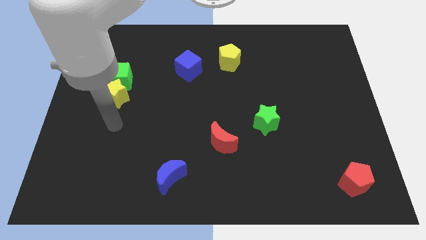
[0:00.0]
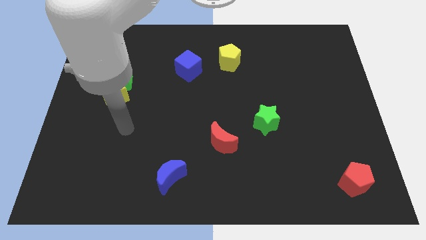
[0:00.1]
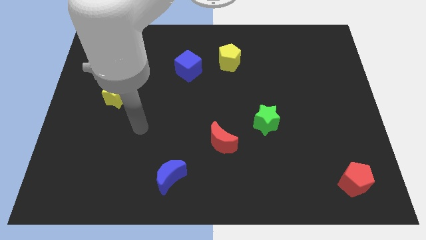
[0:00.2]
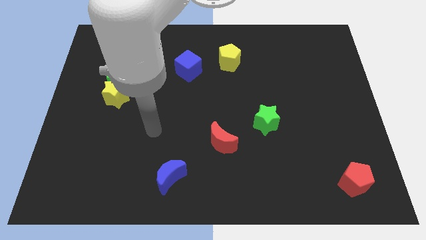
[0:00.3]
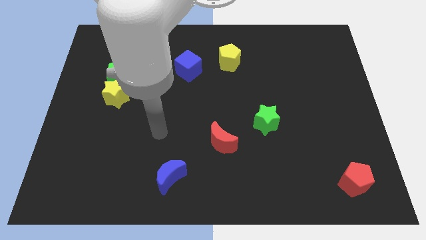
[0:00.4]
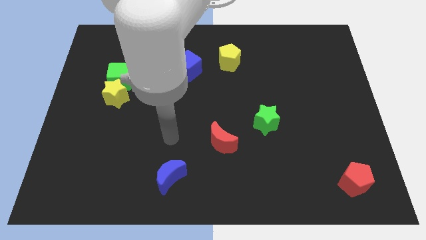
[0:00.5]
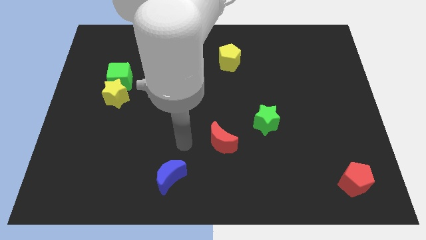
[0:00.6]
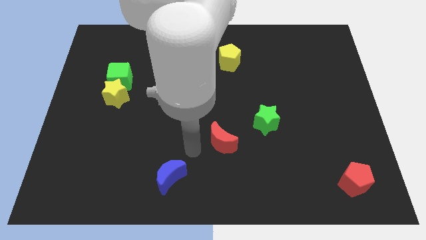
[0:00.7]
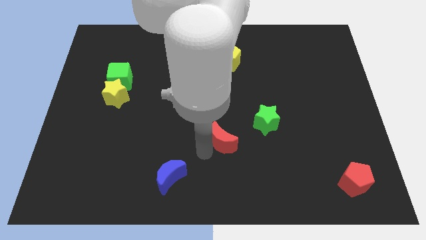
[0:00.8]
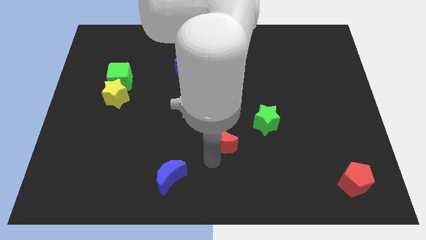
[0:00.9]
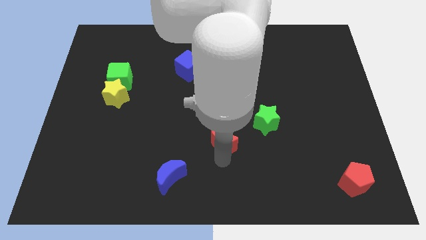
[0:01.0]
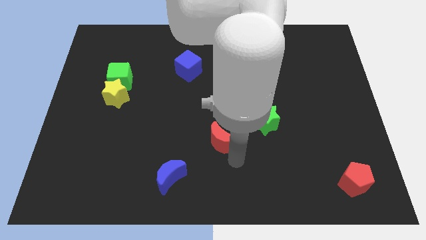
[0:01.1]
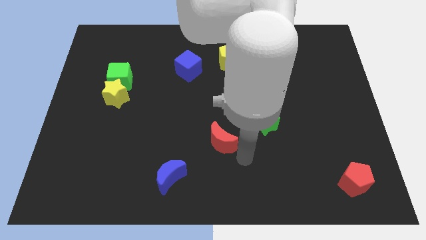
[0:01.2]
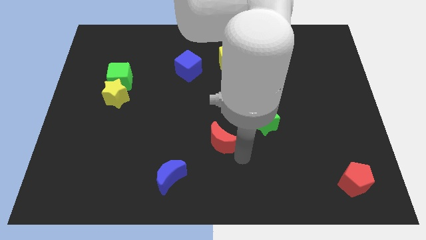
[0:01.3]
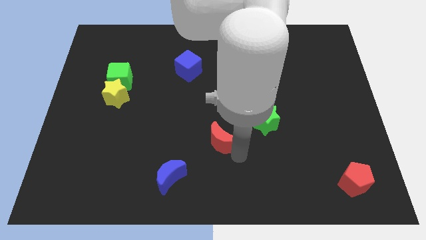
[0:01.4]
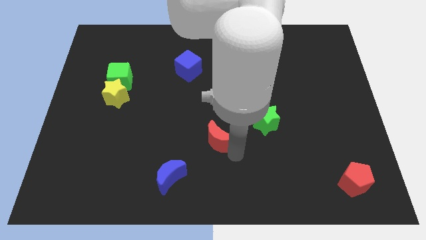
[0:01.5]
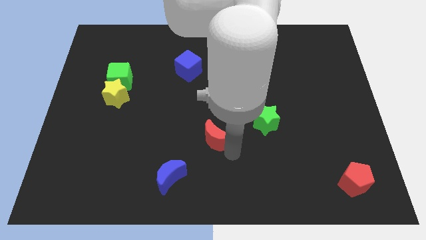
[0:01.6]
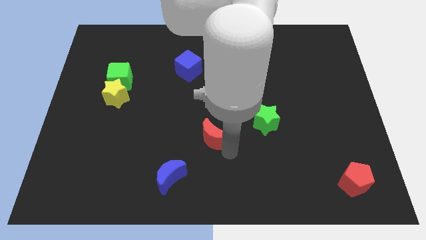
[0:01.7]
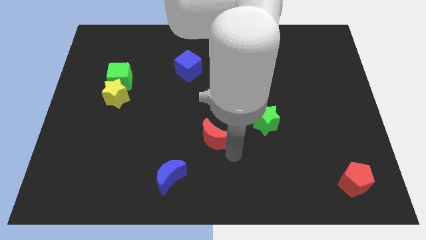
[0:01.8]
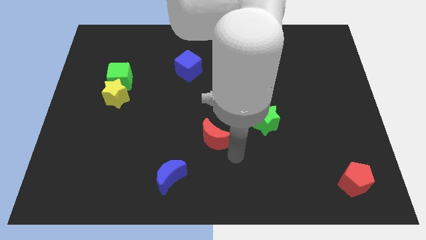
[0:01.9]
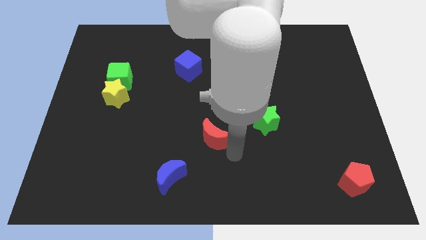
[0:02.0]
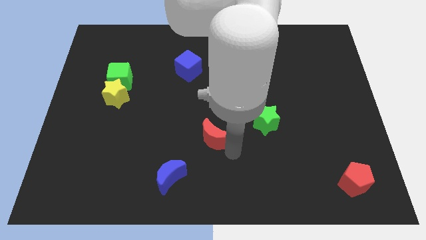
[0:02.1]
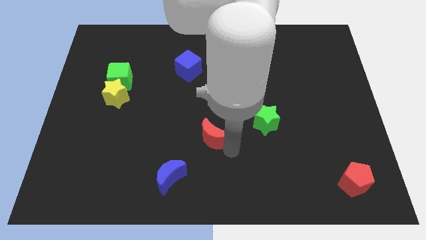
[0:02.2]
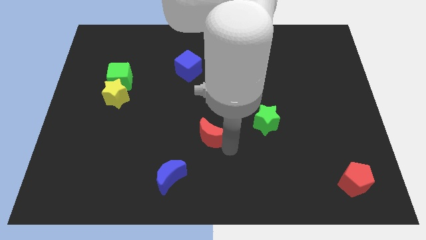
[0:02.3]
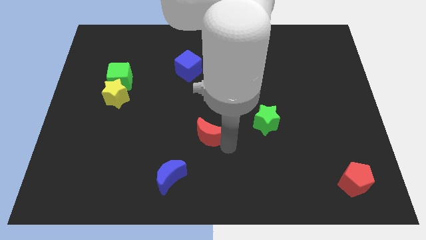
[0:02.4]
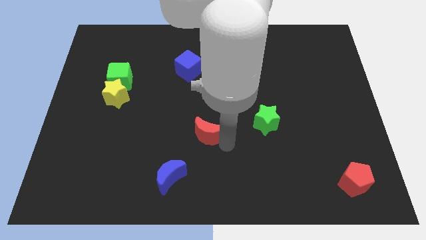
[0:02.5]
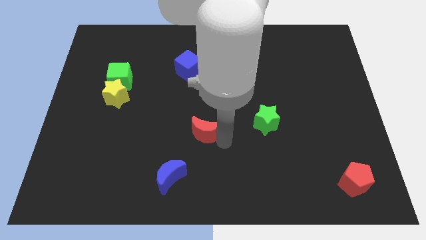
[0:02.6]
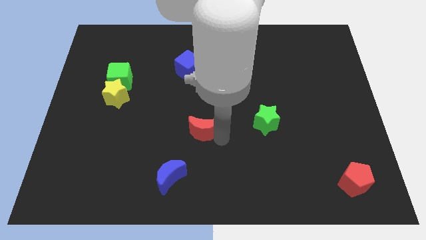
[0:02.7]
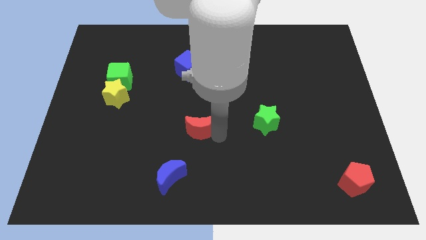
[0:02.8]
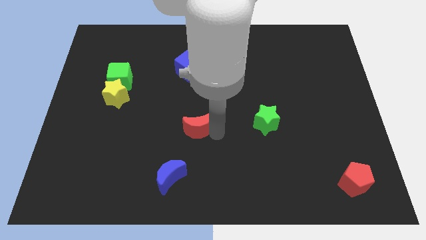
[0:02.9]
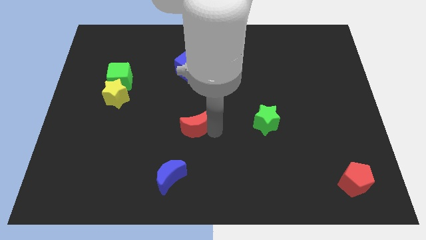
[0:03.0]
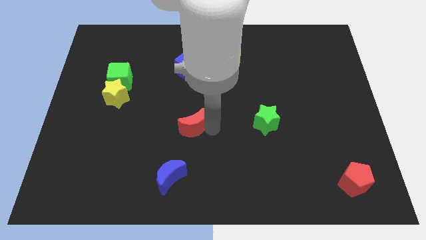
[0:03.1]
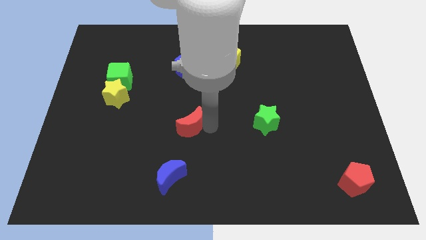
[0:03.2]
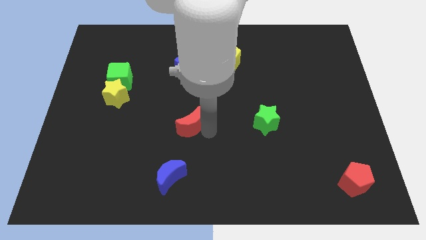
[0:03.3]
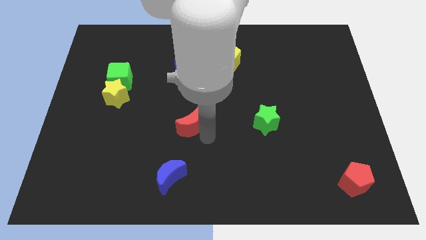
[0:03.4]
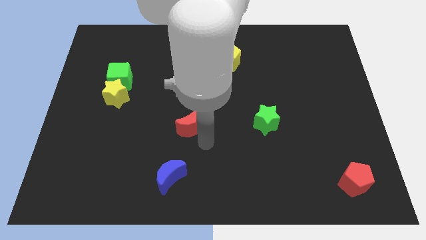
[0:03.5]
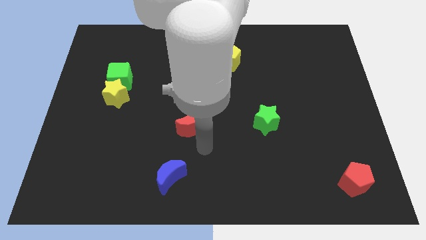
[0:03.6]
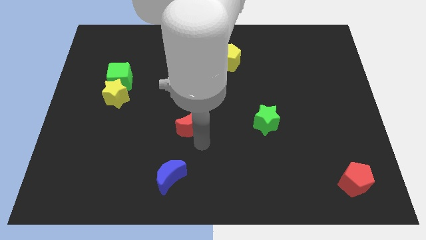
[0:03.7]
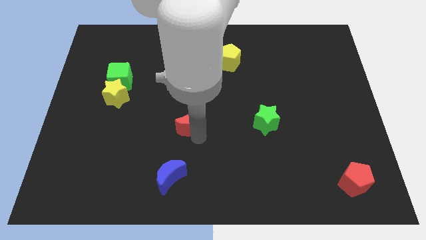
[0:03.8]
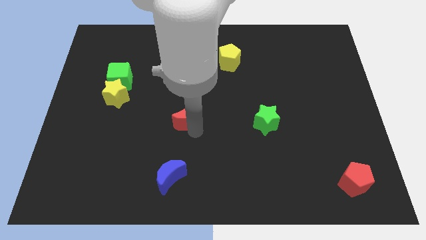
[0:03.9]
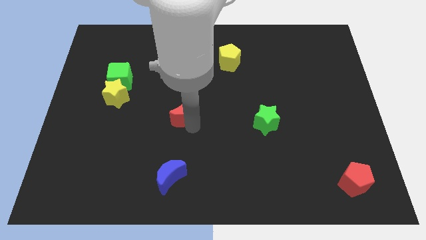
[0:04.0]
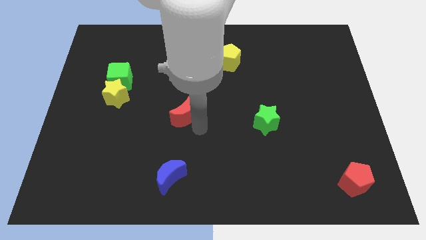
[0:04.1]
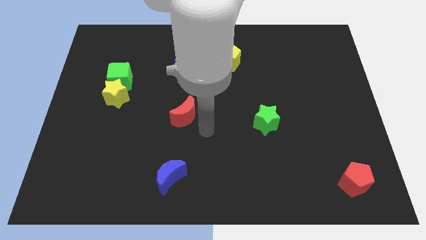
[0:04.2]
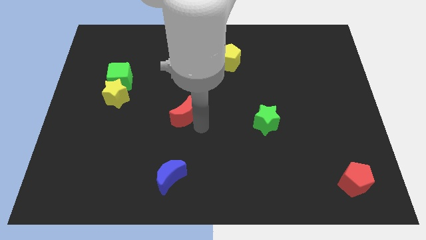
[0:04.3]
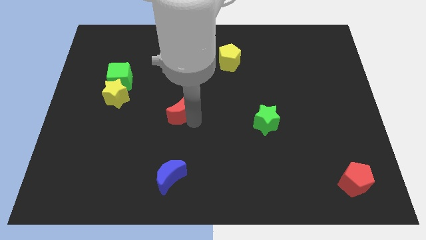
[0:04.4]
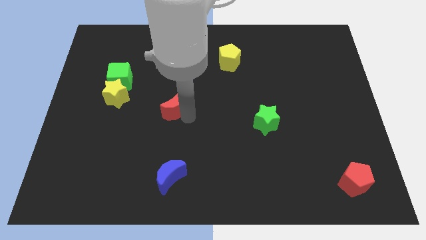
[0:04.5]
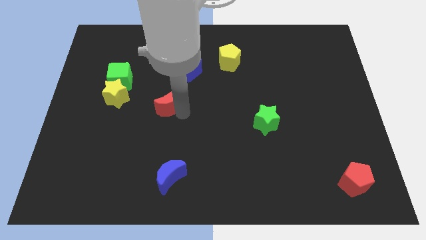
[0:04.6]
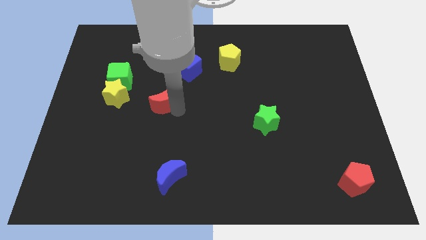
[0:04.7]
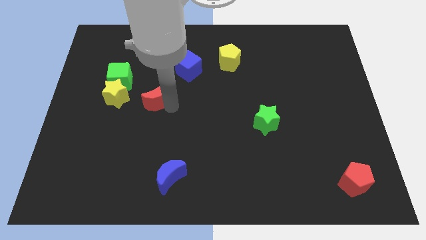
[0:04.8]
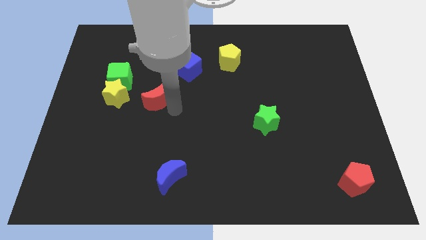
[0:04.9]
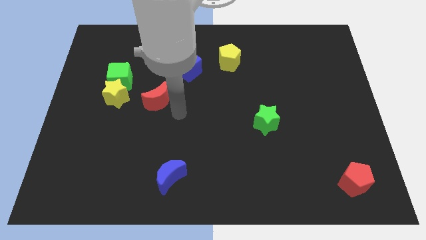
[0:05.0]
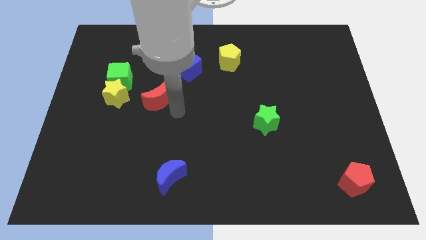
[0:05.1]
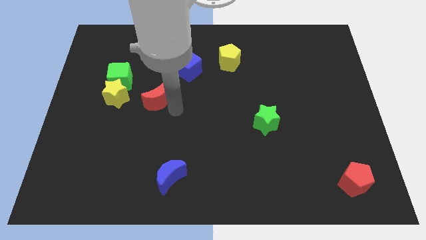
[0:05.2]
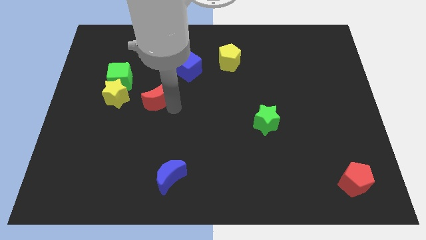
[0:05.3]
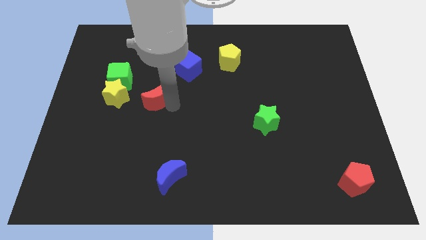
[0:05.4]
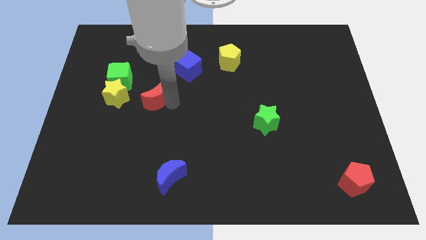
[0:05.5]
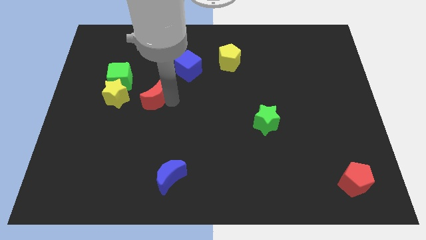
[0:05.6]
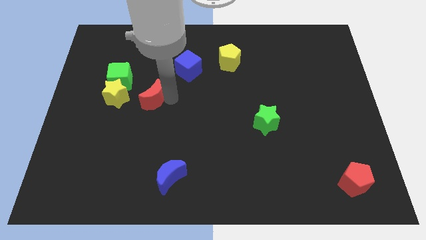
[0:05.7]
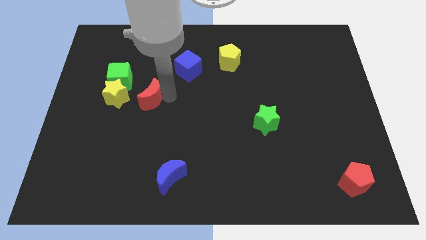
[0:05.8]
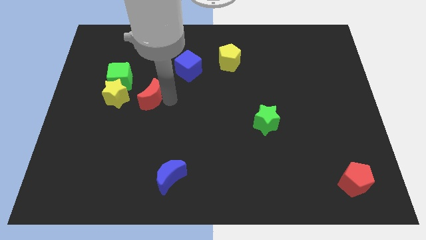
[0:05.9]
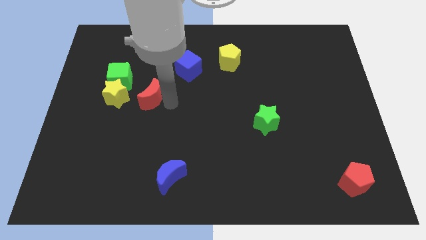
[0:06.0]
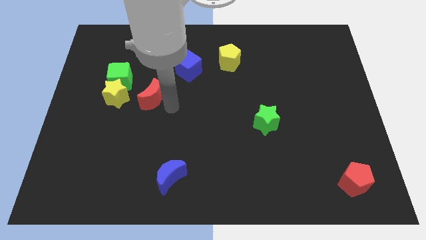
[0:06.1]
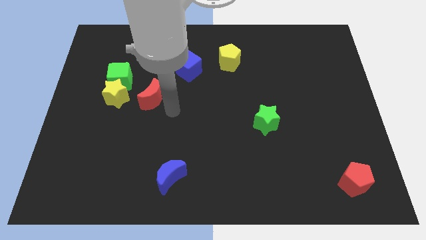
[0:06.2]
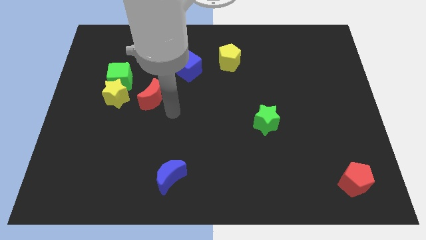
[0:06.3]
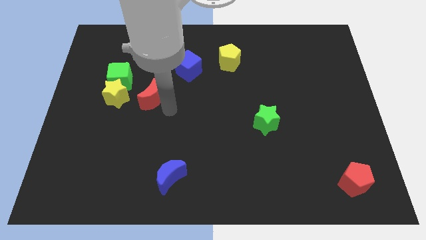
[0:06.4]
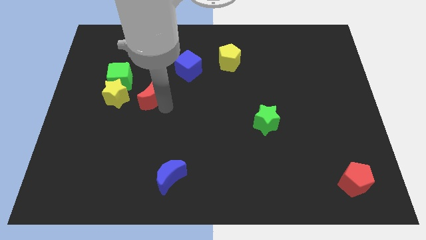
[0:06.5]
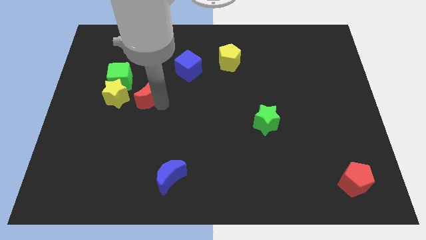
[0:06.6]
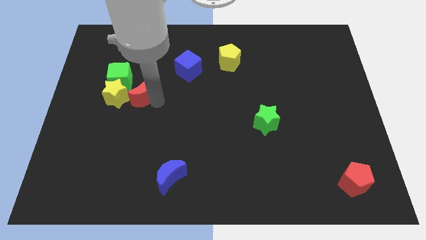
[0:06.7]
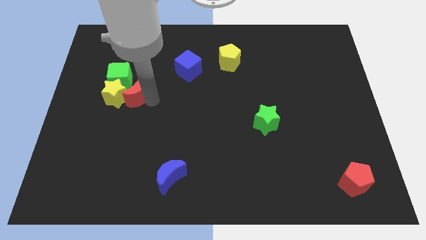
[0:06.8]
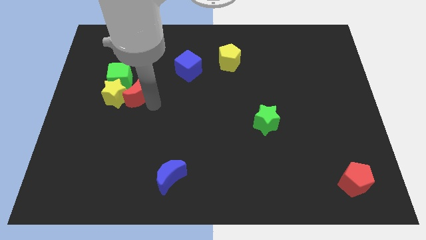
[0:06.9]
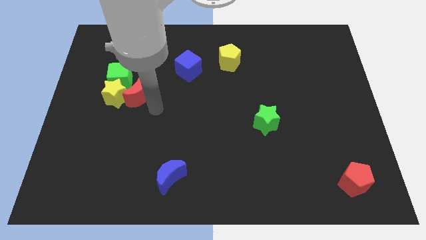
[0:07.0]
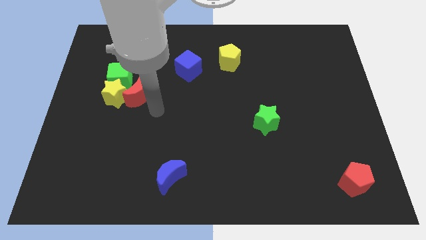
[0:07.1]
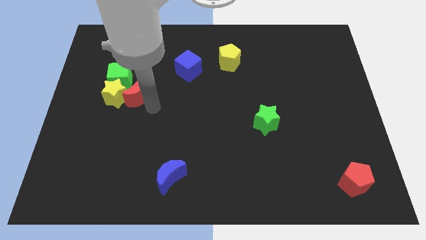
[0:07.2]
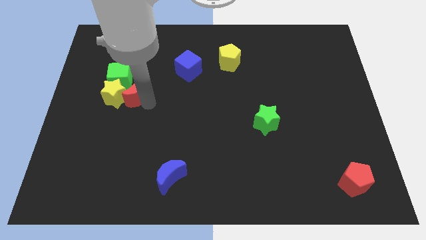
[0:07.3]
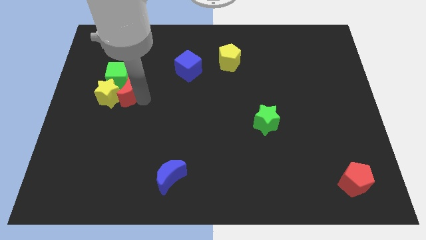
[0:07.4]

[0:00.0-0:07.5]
slide the red moon close to the green cube

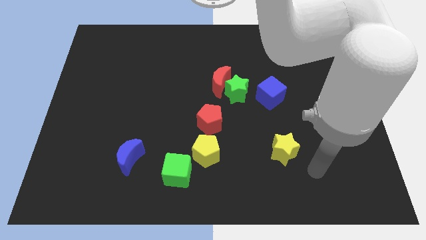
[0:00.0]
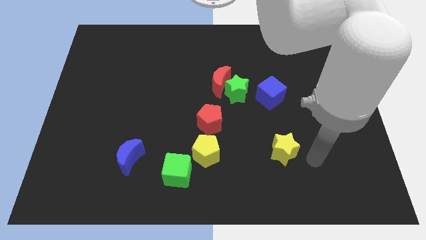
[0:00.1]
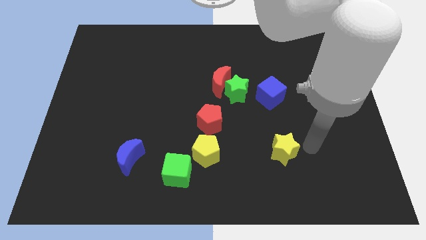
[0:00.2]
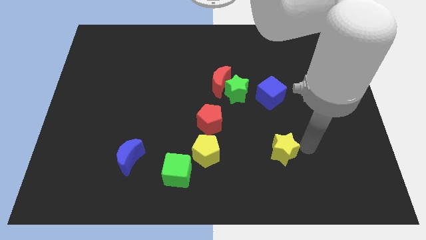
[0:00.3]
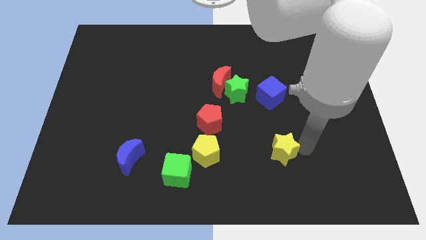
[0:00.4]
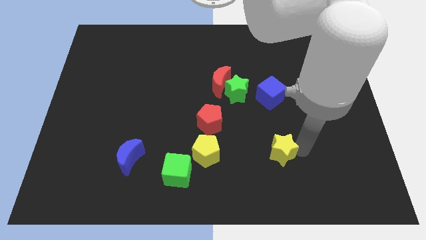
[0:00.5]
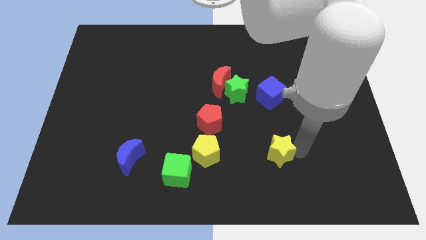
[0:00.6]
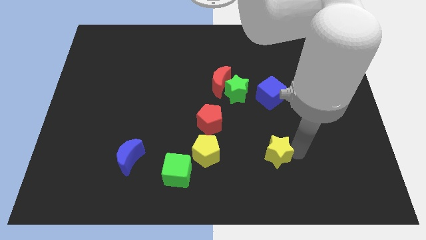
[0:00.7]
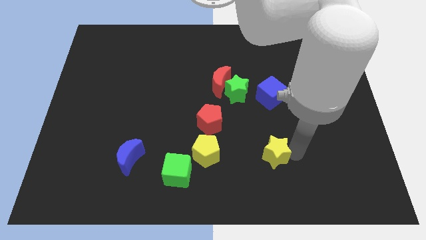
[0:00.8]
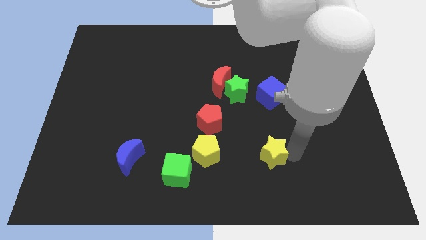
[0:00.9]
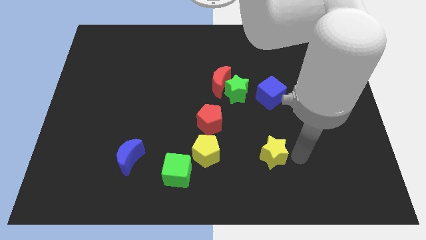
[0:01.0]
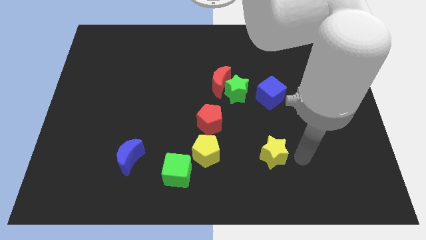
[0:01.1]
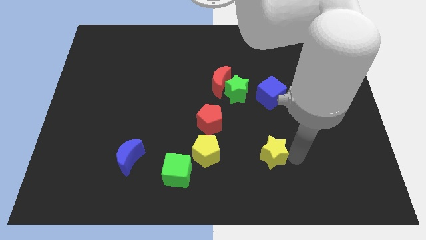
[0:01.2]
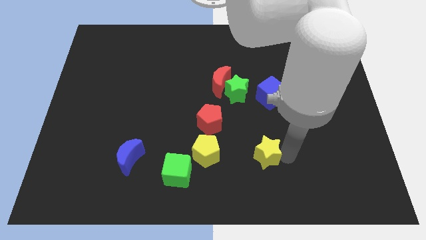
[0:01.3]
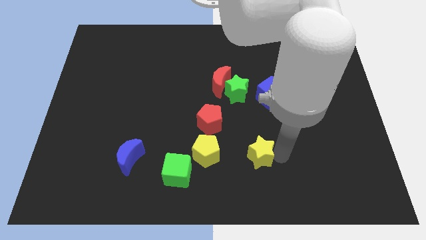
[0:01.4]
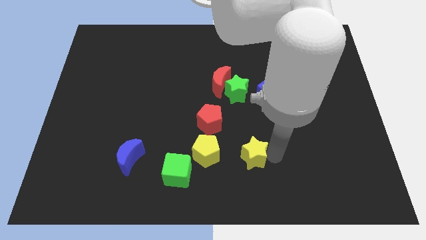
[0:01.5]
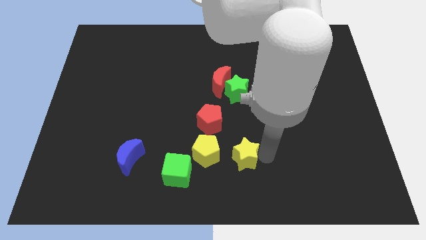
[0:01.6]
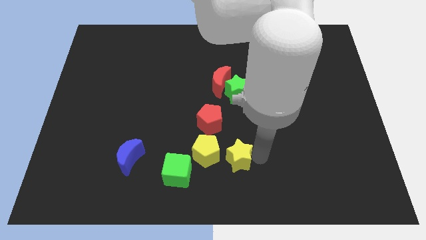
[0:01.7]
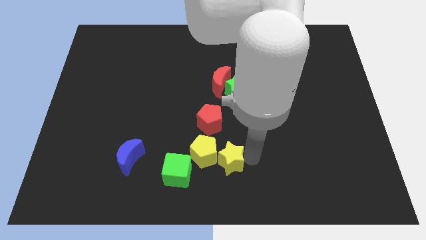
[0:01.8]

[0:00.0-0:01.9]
put the yellow star next to the yellow pentagon
